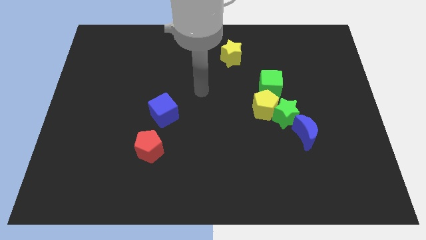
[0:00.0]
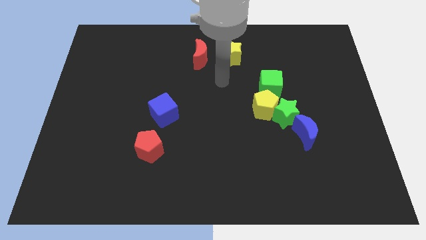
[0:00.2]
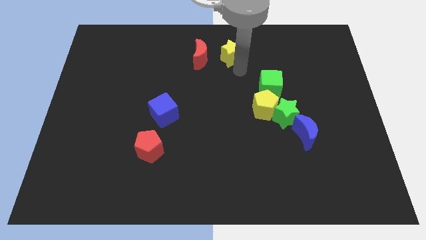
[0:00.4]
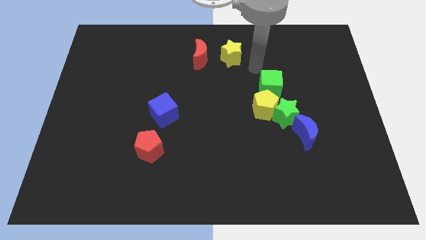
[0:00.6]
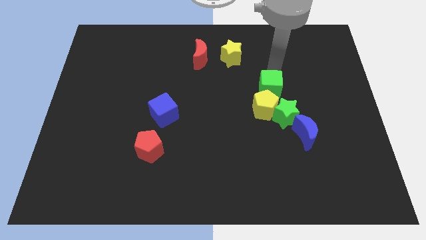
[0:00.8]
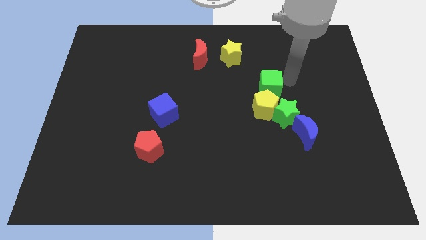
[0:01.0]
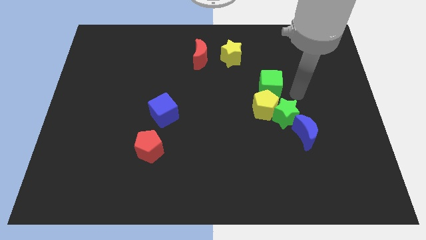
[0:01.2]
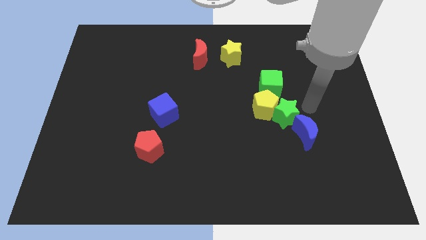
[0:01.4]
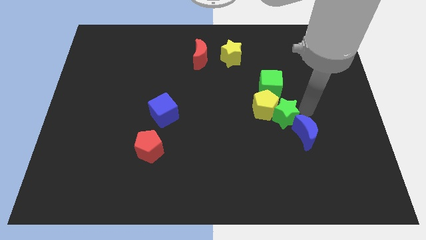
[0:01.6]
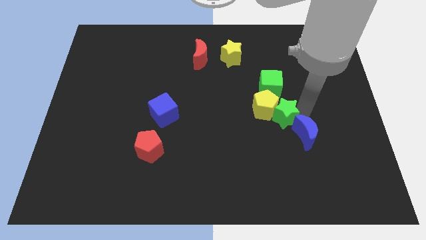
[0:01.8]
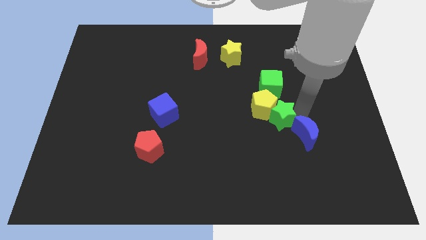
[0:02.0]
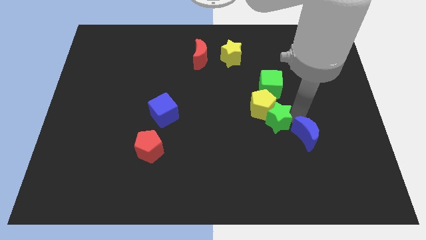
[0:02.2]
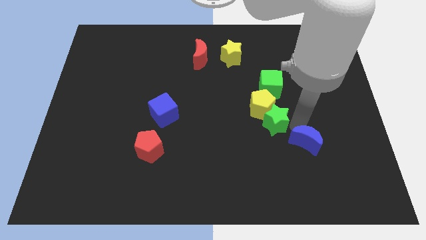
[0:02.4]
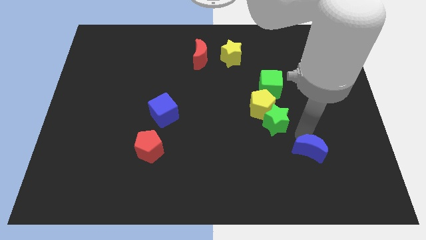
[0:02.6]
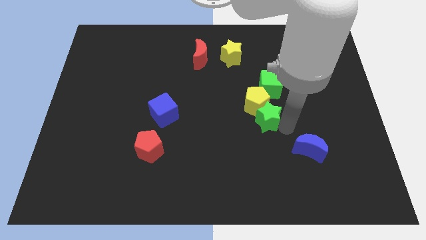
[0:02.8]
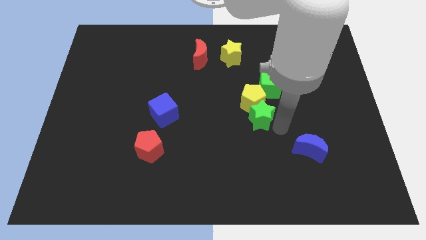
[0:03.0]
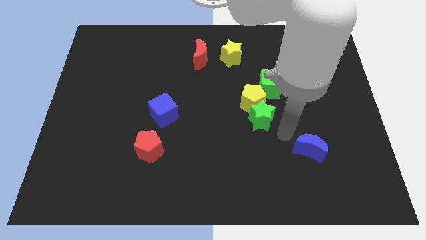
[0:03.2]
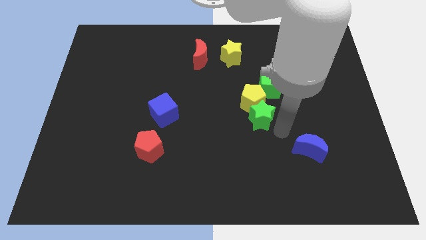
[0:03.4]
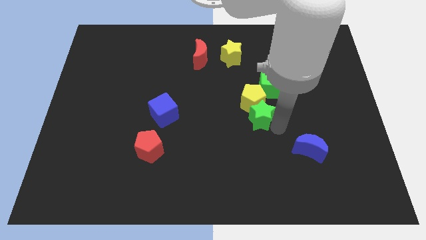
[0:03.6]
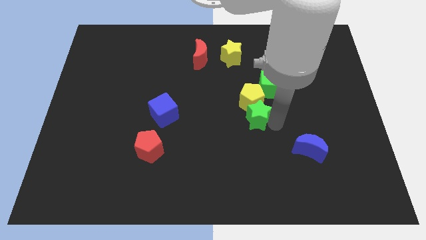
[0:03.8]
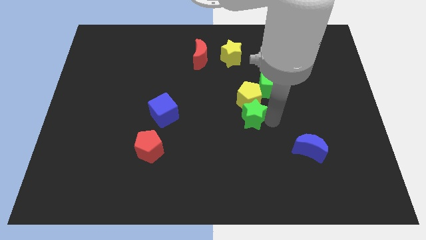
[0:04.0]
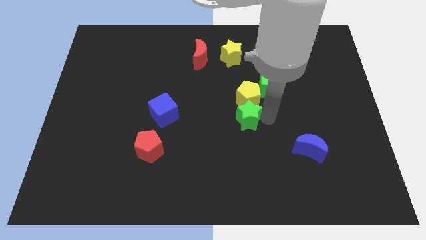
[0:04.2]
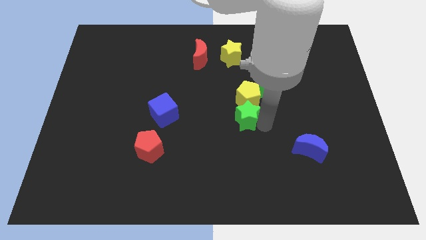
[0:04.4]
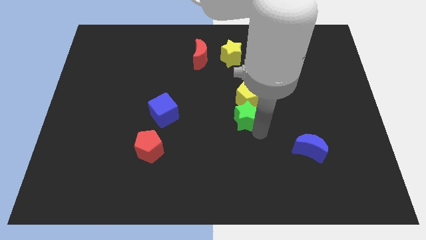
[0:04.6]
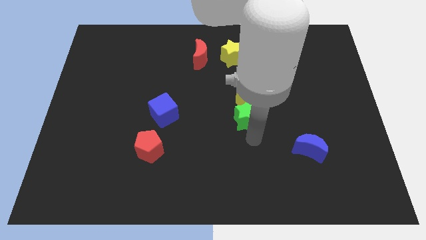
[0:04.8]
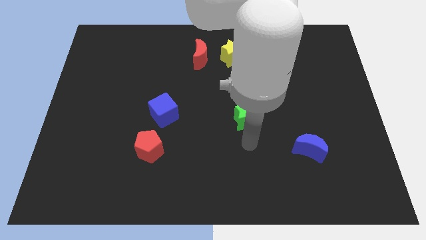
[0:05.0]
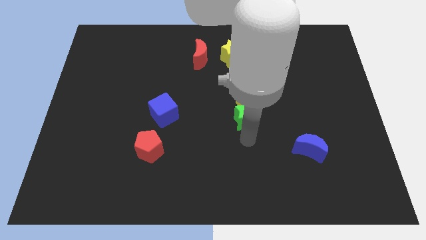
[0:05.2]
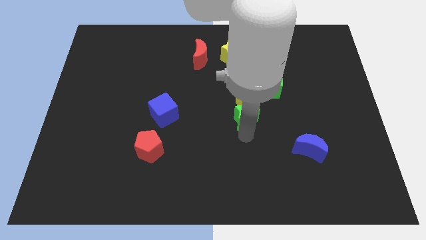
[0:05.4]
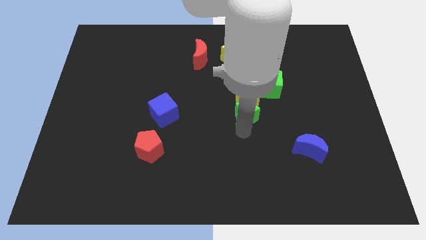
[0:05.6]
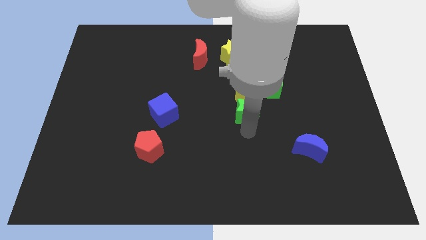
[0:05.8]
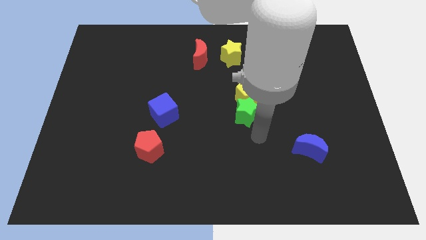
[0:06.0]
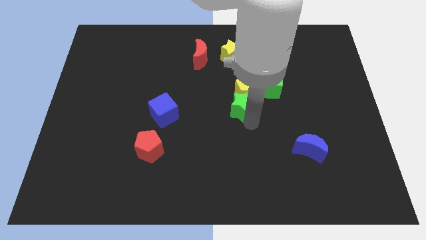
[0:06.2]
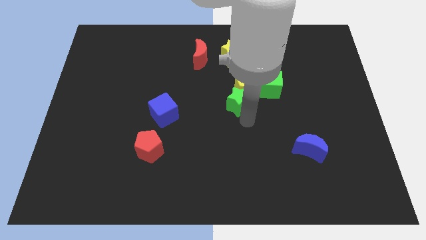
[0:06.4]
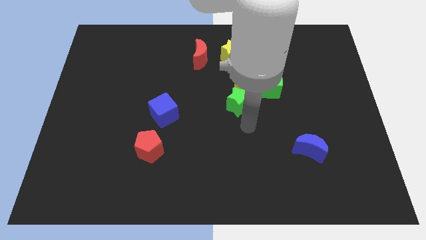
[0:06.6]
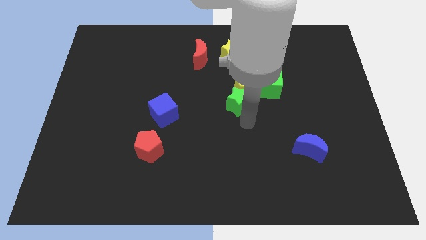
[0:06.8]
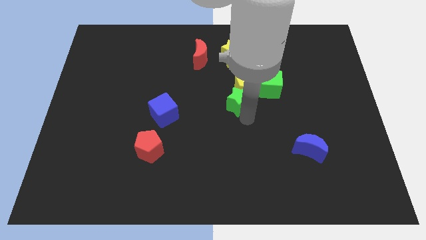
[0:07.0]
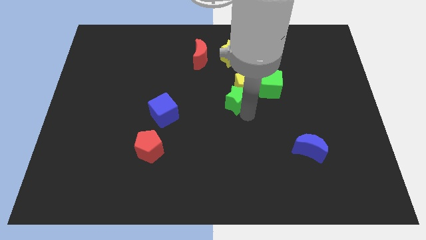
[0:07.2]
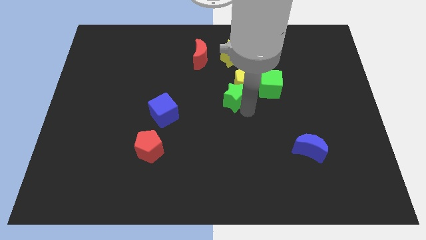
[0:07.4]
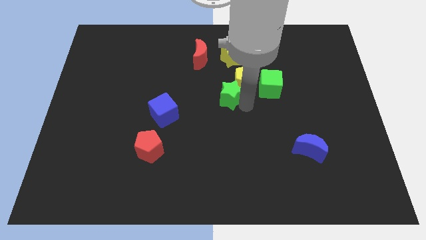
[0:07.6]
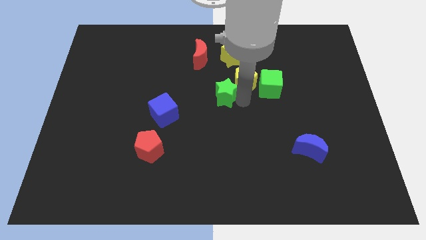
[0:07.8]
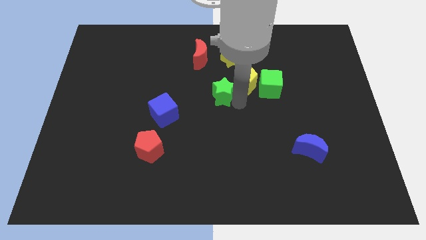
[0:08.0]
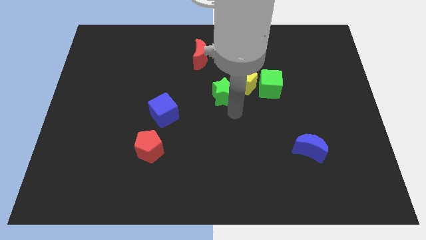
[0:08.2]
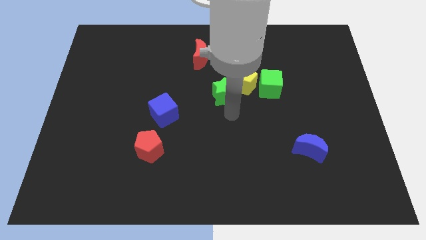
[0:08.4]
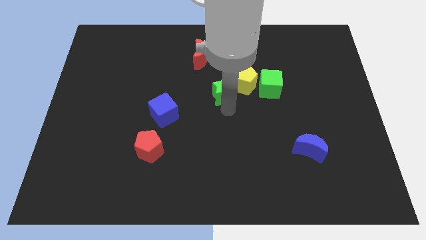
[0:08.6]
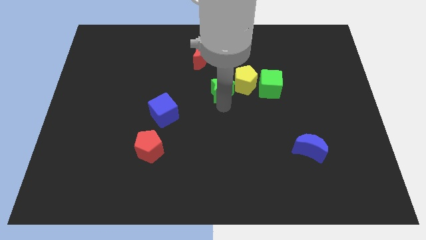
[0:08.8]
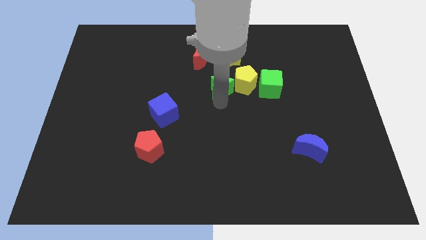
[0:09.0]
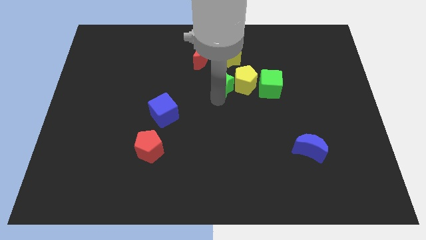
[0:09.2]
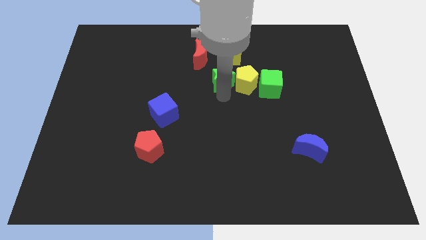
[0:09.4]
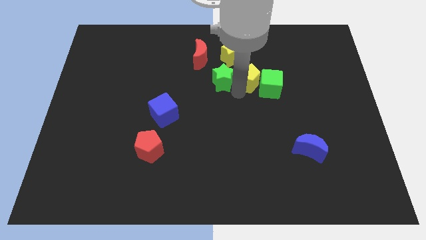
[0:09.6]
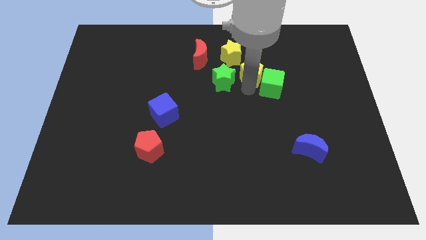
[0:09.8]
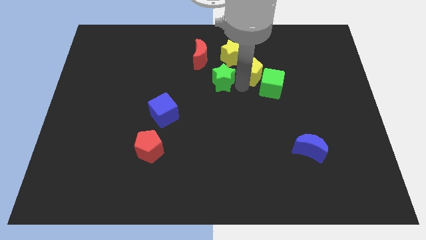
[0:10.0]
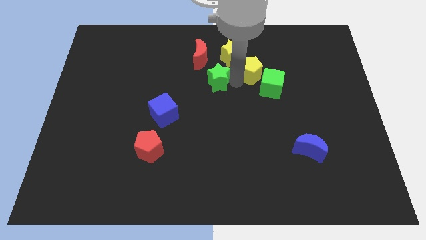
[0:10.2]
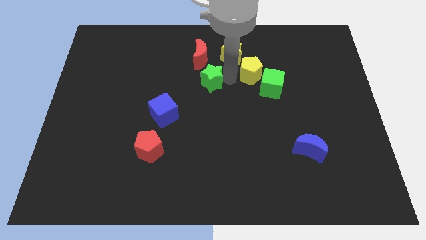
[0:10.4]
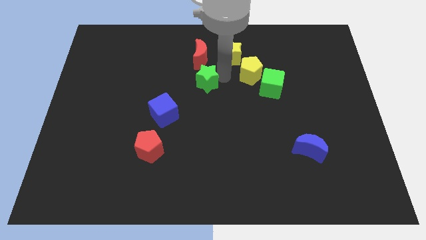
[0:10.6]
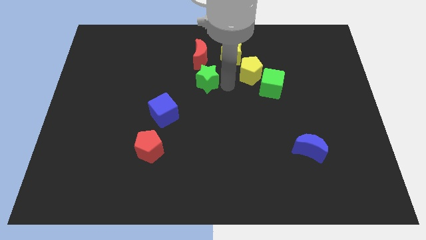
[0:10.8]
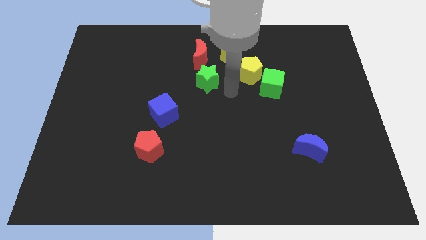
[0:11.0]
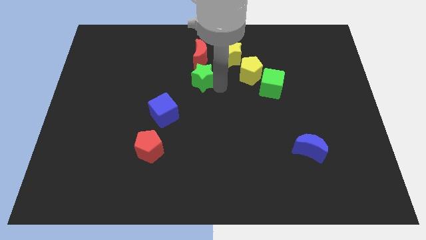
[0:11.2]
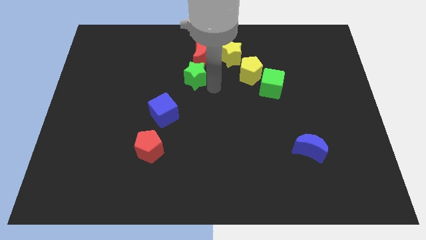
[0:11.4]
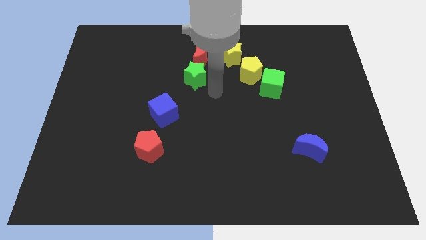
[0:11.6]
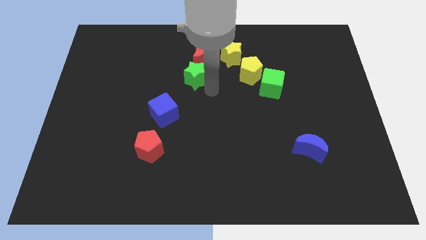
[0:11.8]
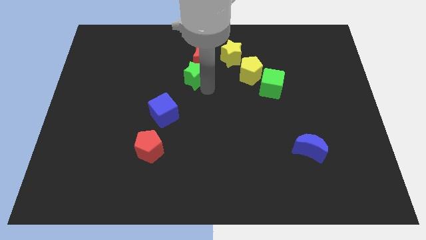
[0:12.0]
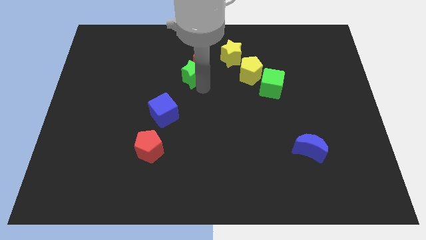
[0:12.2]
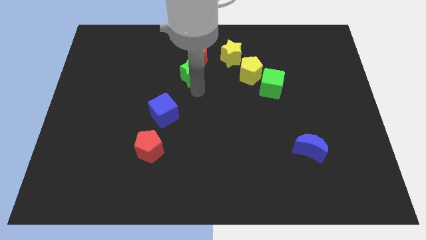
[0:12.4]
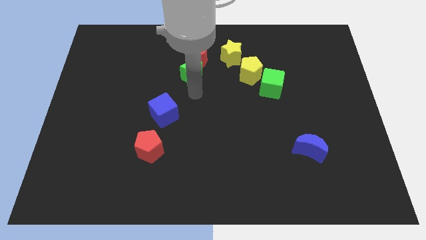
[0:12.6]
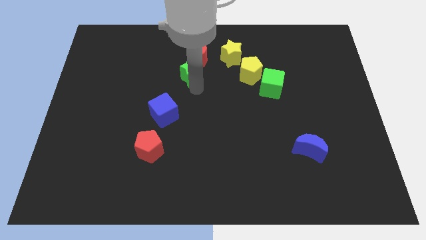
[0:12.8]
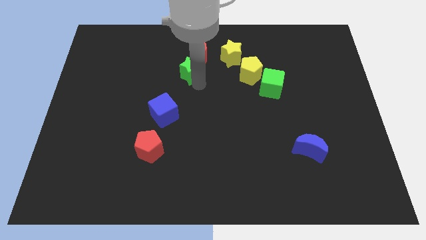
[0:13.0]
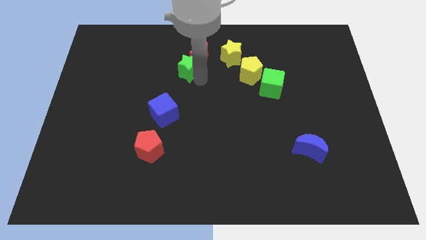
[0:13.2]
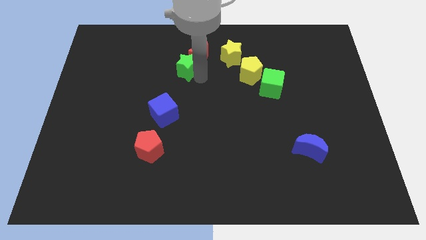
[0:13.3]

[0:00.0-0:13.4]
push the green star left of the yellow star

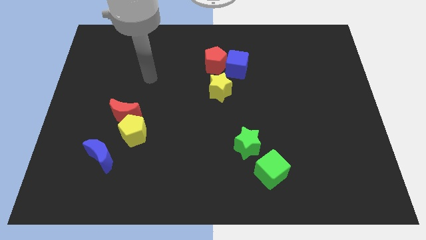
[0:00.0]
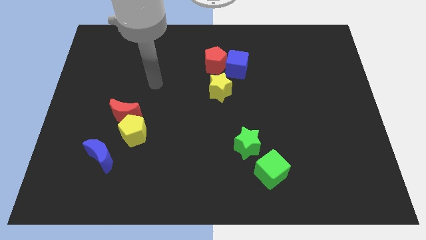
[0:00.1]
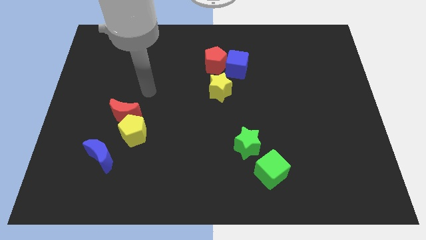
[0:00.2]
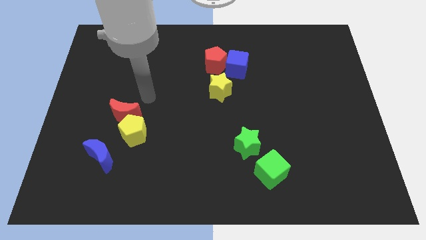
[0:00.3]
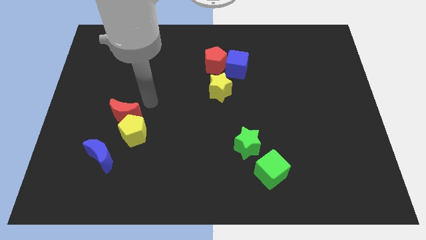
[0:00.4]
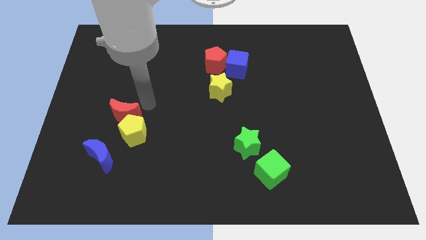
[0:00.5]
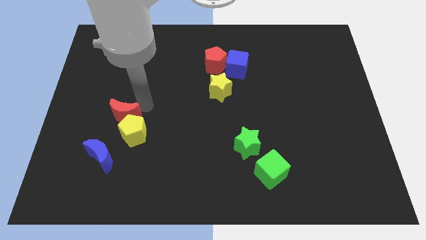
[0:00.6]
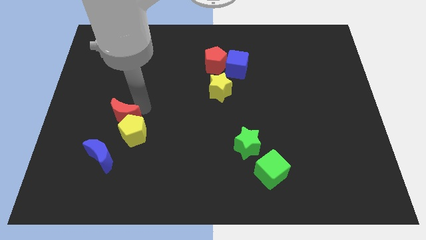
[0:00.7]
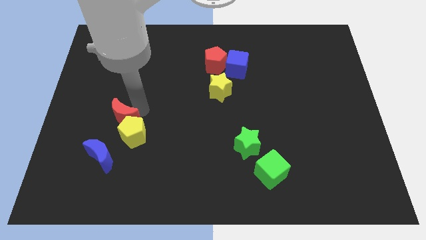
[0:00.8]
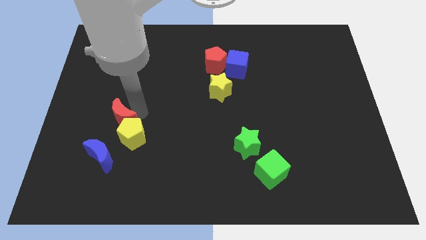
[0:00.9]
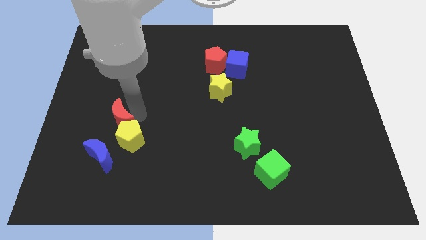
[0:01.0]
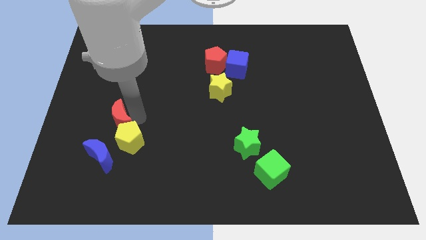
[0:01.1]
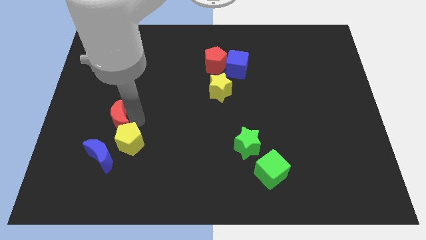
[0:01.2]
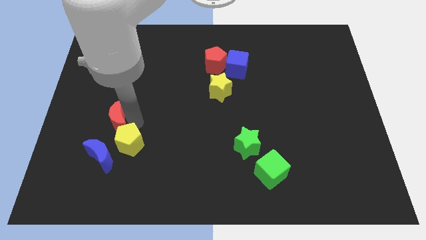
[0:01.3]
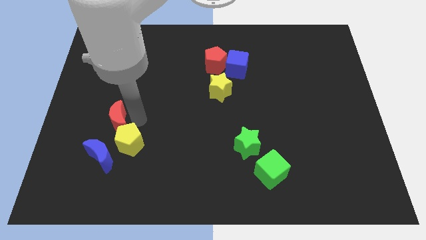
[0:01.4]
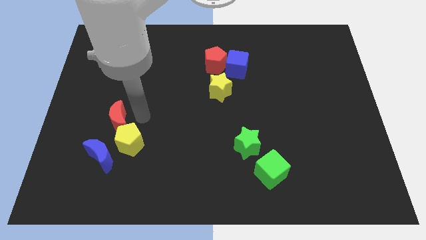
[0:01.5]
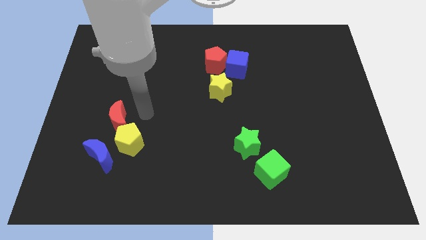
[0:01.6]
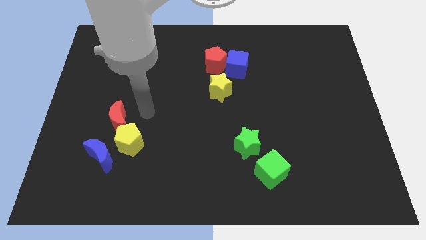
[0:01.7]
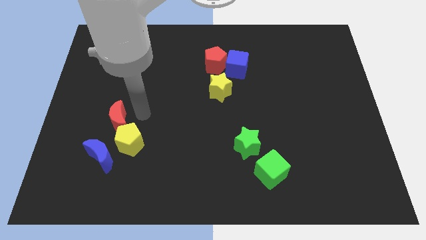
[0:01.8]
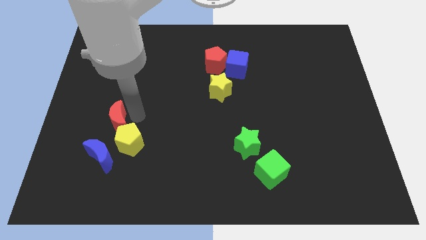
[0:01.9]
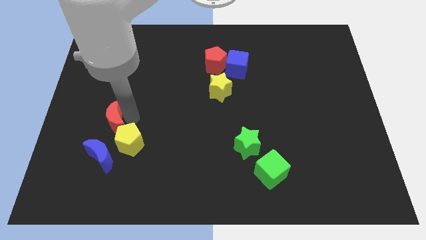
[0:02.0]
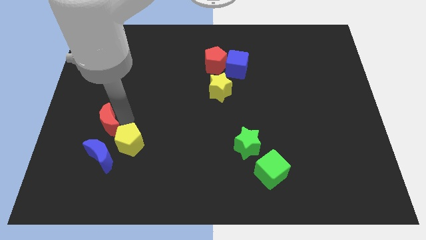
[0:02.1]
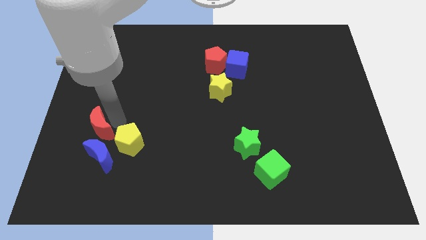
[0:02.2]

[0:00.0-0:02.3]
push the red moon to the top left of the blue moon
